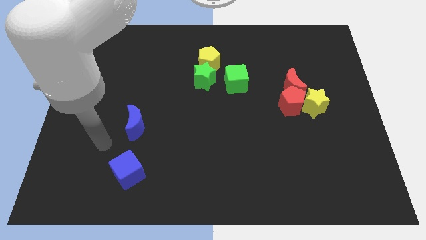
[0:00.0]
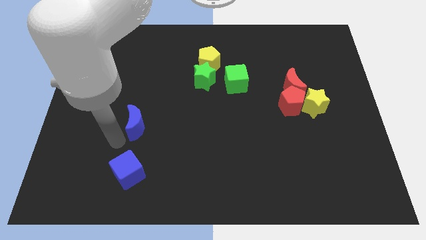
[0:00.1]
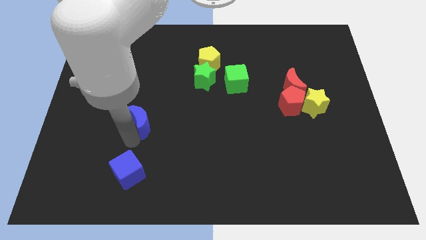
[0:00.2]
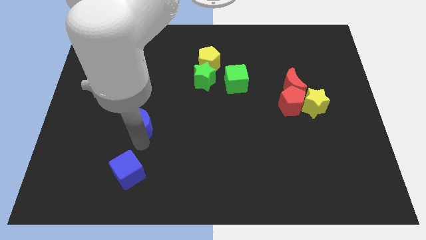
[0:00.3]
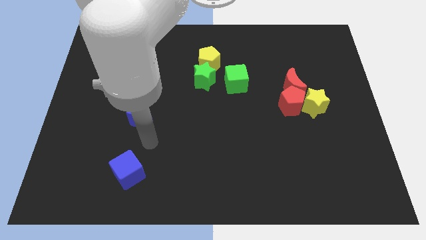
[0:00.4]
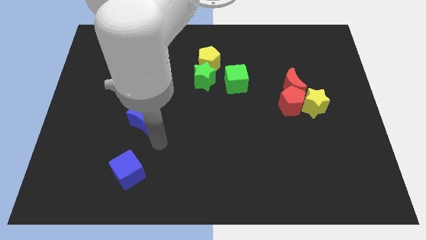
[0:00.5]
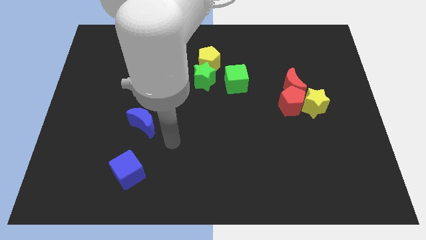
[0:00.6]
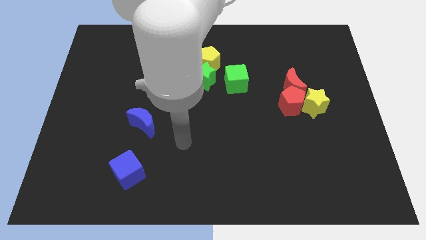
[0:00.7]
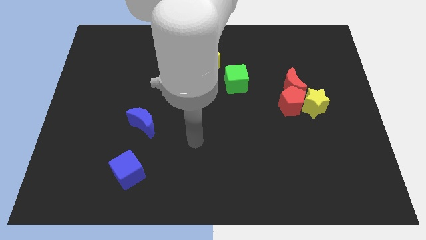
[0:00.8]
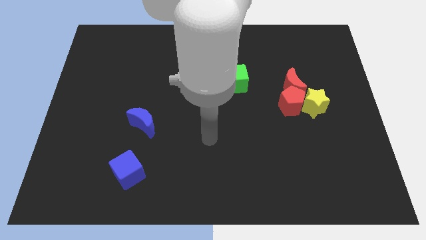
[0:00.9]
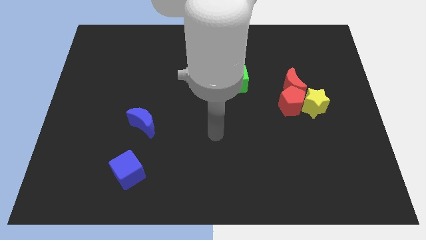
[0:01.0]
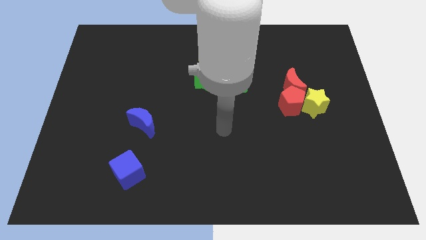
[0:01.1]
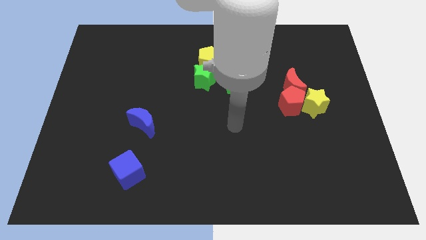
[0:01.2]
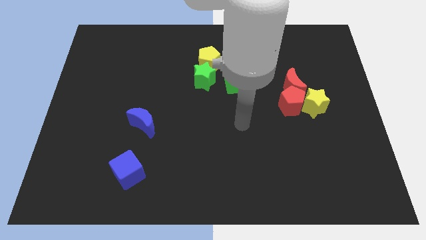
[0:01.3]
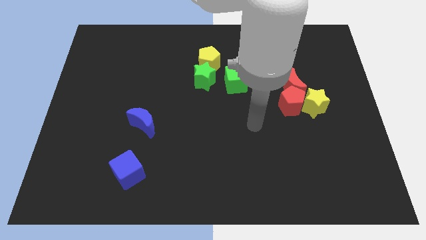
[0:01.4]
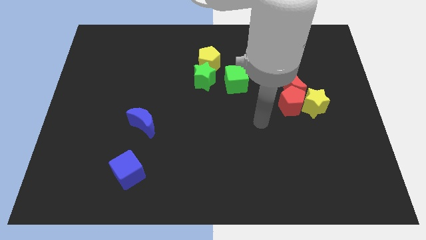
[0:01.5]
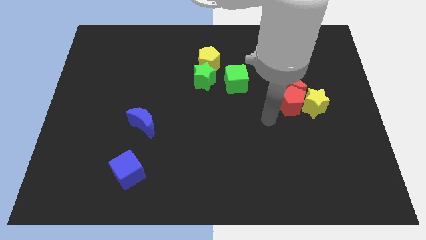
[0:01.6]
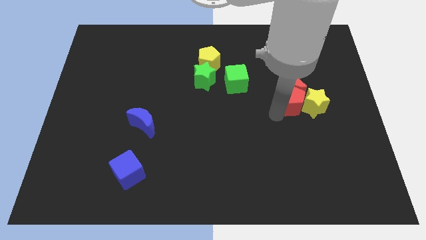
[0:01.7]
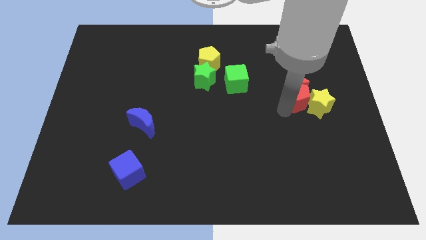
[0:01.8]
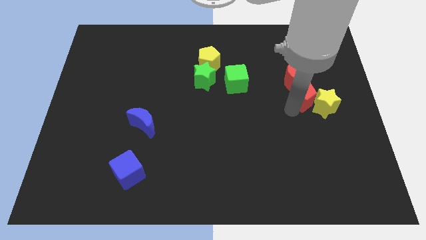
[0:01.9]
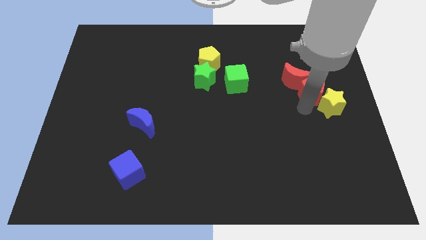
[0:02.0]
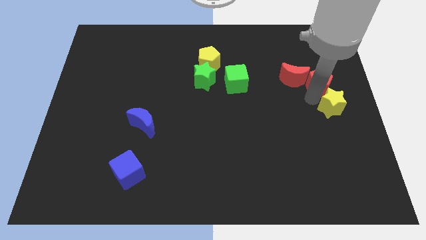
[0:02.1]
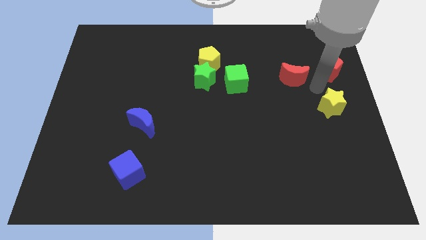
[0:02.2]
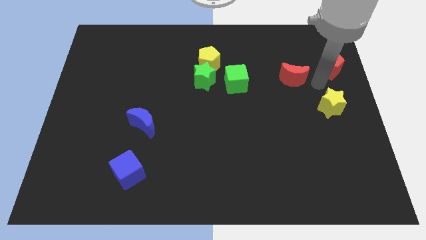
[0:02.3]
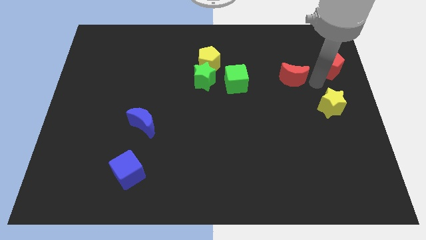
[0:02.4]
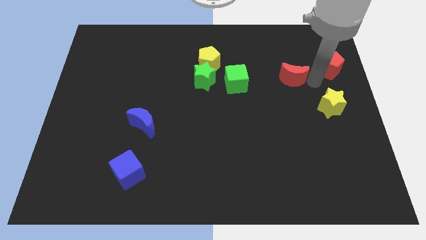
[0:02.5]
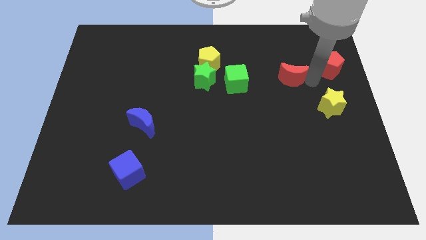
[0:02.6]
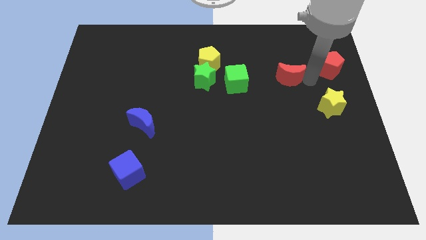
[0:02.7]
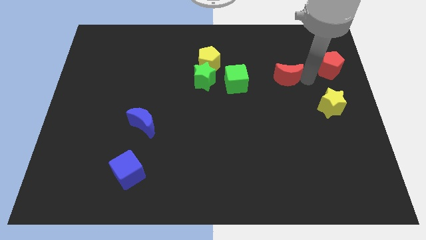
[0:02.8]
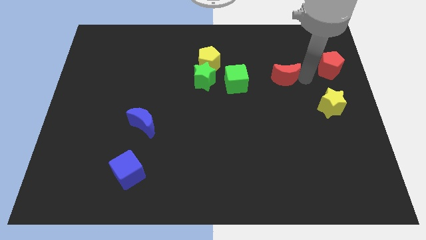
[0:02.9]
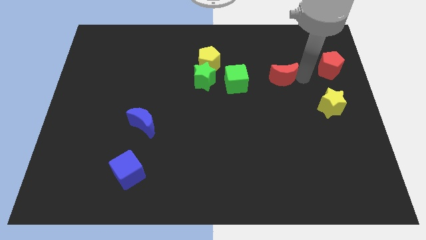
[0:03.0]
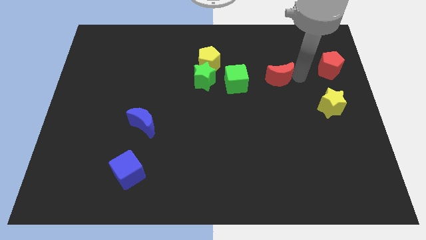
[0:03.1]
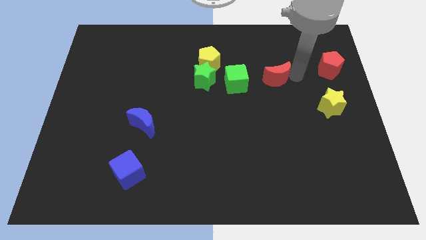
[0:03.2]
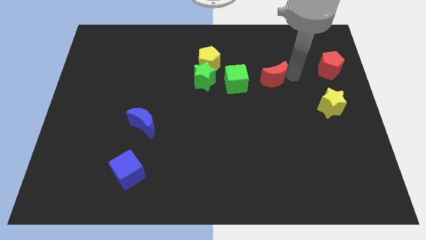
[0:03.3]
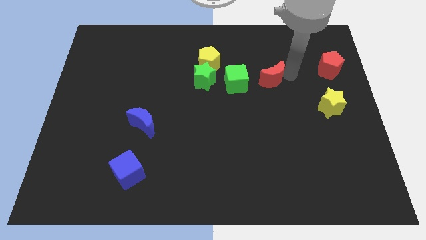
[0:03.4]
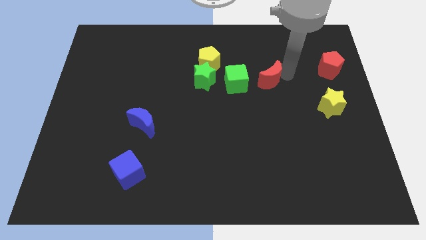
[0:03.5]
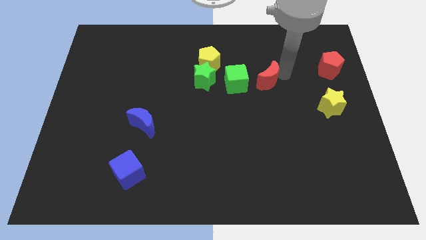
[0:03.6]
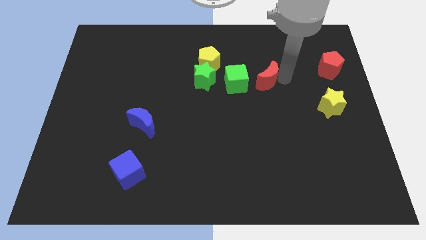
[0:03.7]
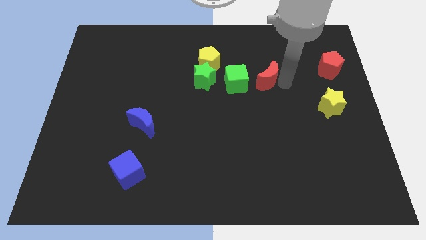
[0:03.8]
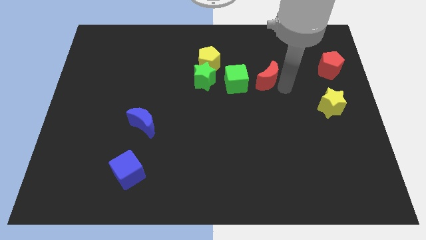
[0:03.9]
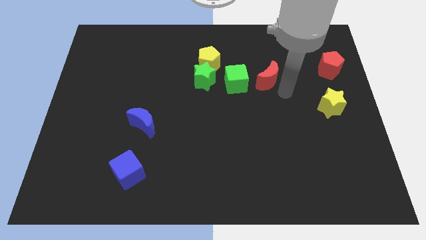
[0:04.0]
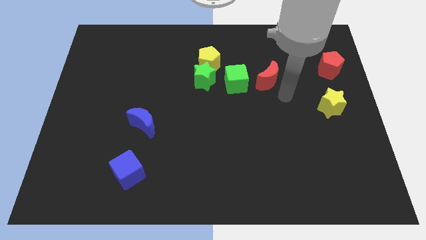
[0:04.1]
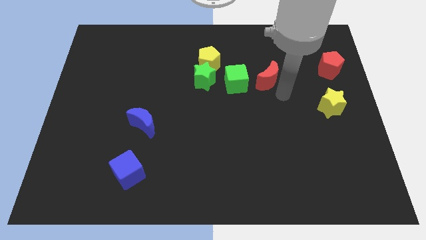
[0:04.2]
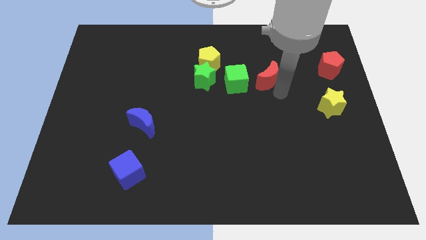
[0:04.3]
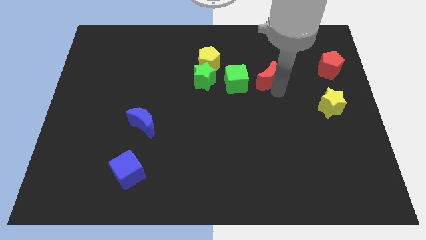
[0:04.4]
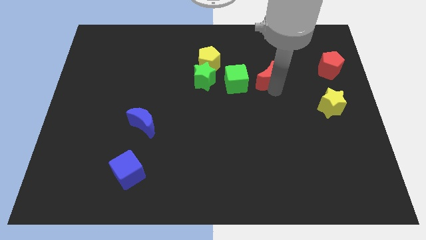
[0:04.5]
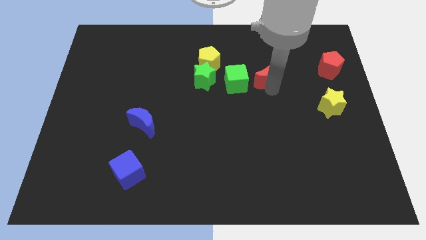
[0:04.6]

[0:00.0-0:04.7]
move the red moon to the top right of the green cube

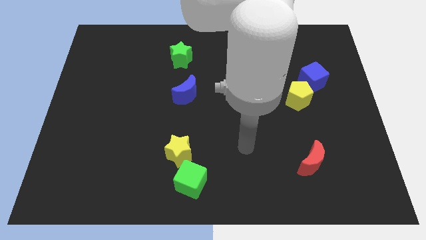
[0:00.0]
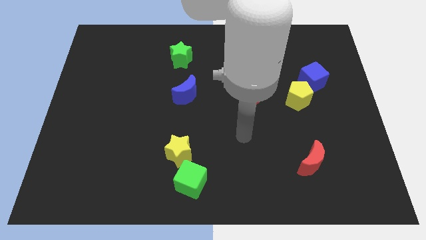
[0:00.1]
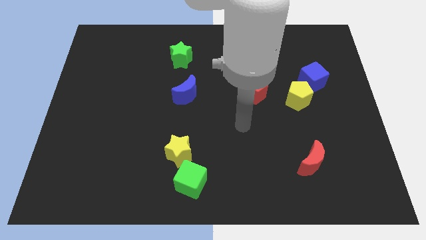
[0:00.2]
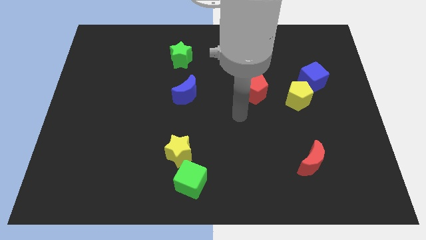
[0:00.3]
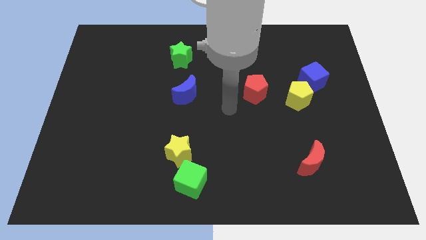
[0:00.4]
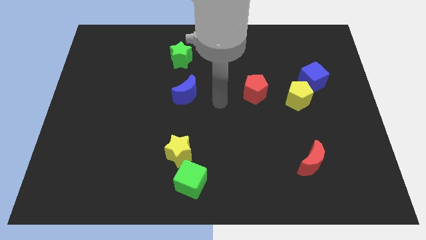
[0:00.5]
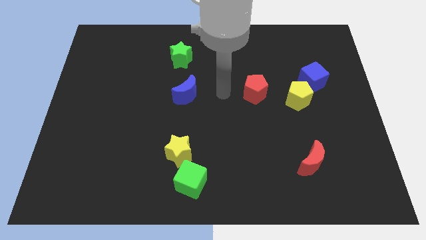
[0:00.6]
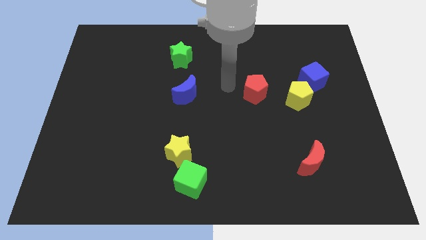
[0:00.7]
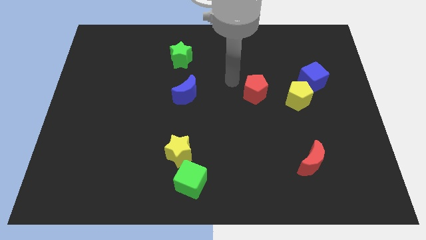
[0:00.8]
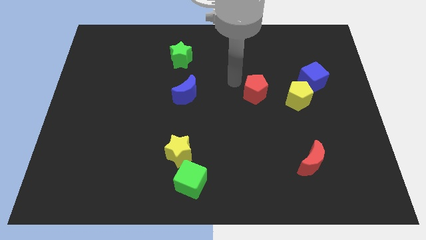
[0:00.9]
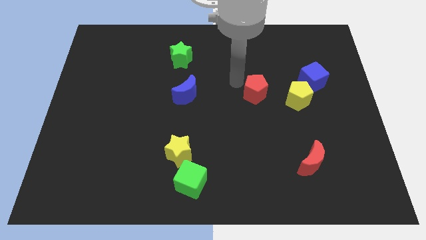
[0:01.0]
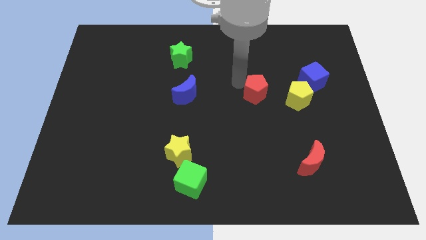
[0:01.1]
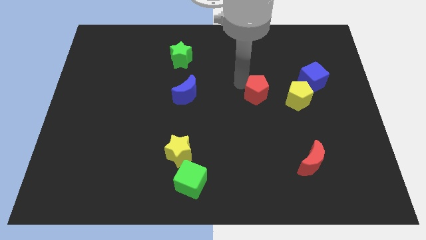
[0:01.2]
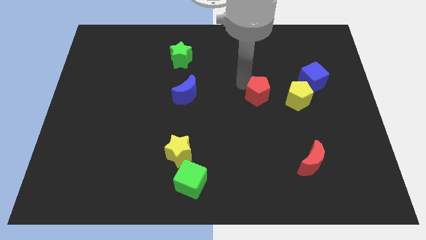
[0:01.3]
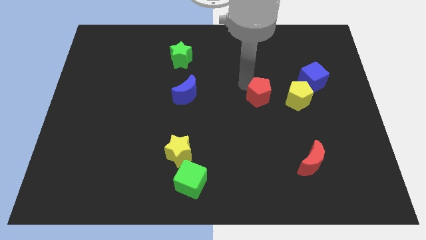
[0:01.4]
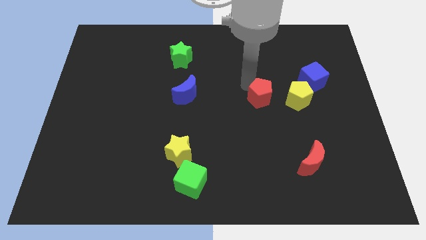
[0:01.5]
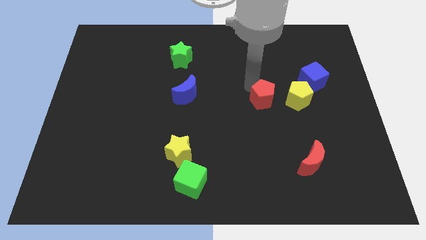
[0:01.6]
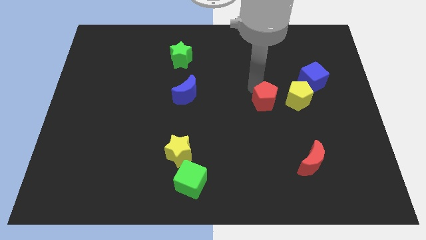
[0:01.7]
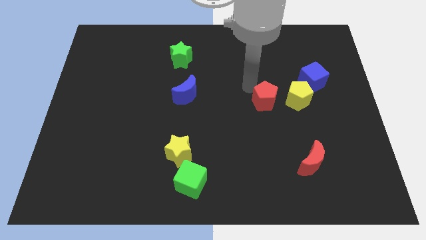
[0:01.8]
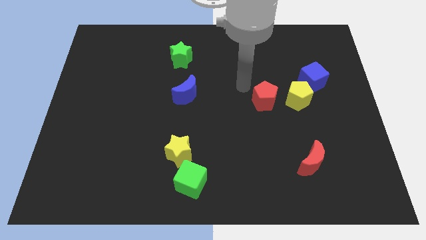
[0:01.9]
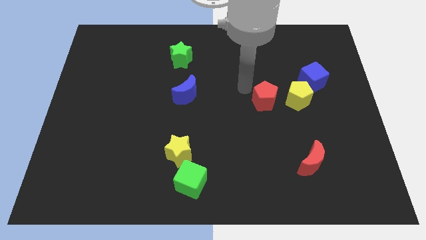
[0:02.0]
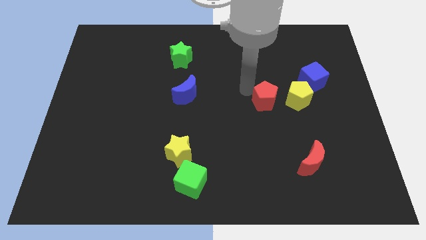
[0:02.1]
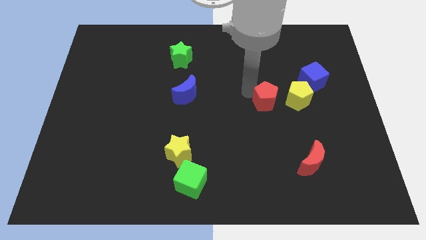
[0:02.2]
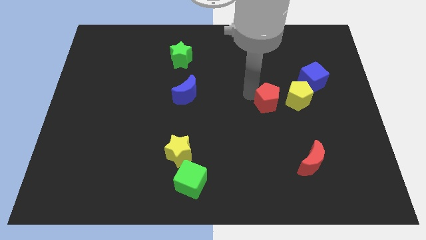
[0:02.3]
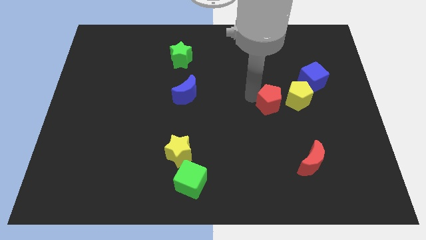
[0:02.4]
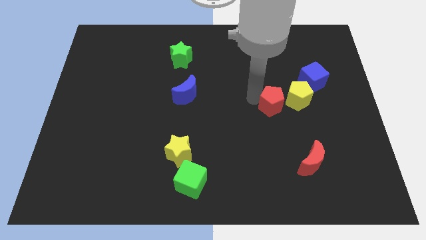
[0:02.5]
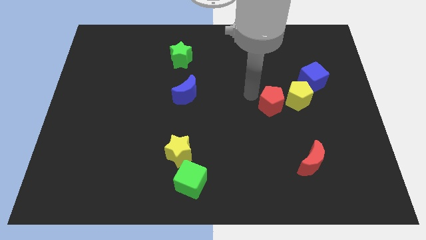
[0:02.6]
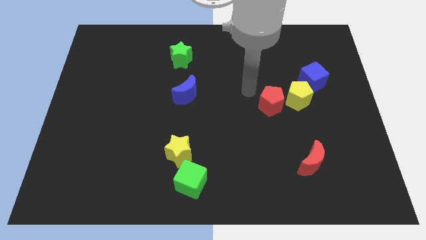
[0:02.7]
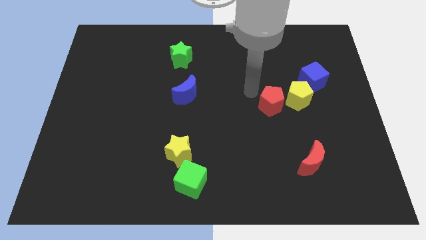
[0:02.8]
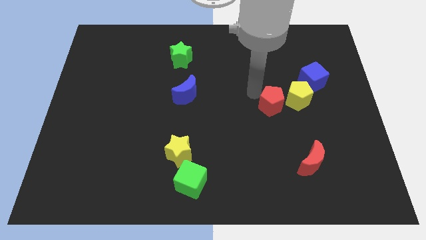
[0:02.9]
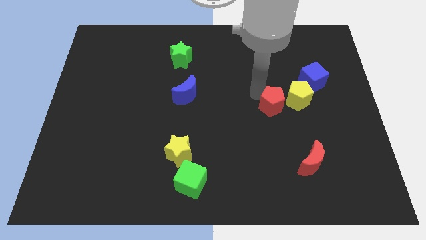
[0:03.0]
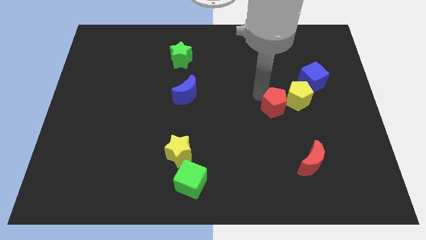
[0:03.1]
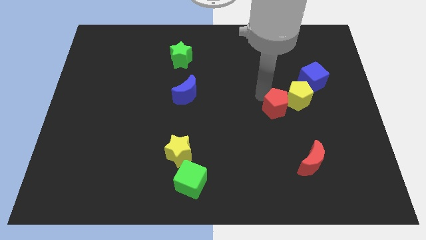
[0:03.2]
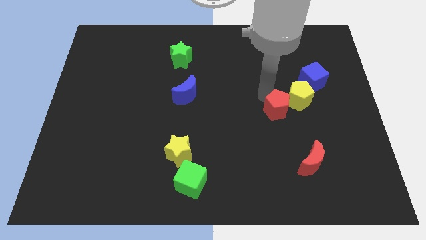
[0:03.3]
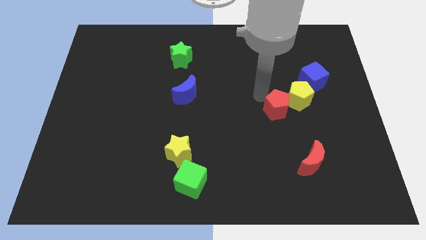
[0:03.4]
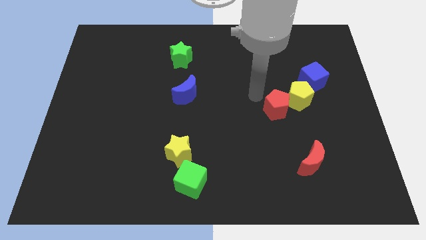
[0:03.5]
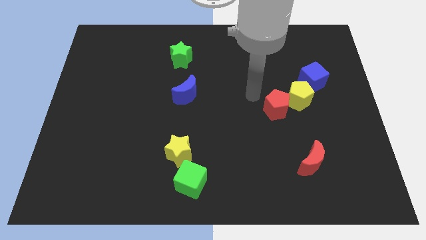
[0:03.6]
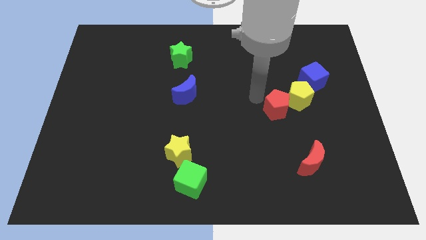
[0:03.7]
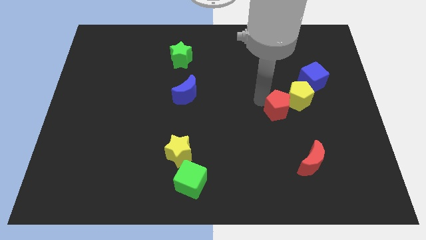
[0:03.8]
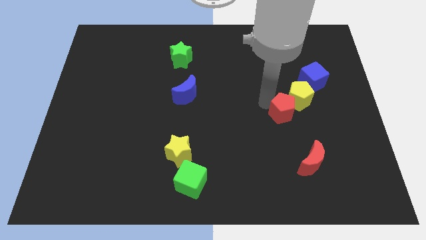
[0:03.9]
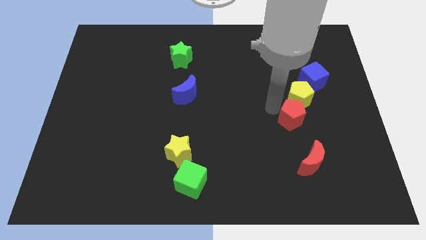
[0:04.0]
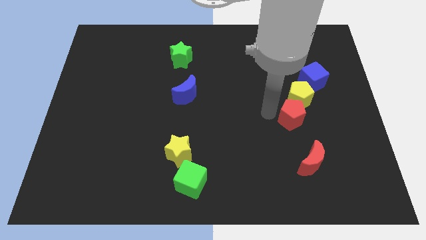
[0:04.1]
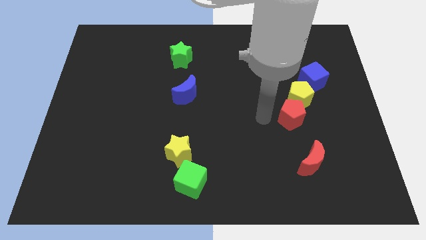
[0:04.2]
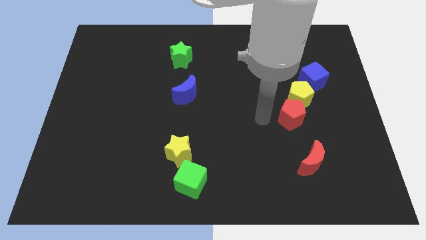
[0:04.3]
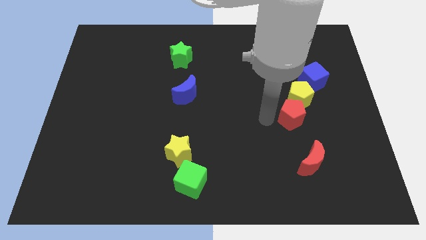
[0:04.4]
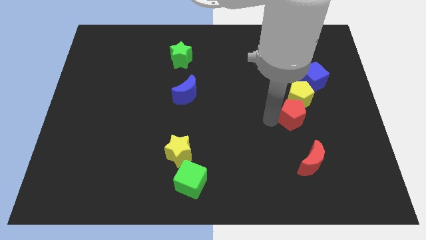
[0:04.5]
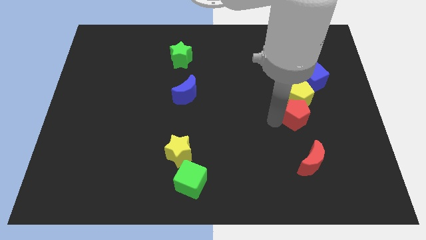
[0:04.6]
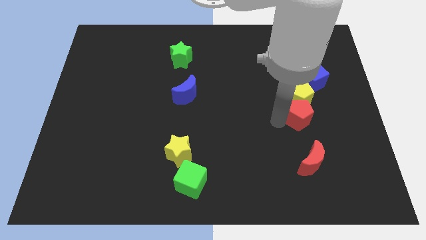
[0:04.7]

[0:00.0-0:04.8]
move the red pentagon to the bottom right of the yellow pentagon
